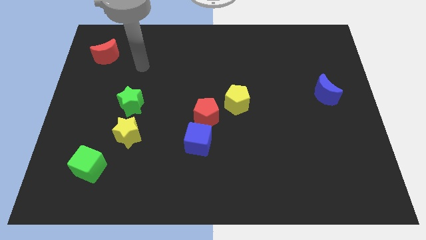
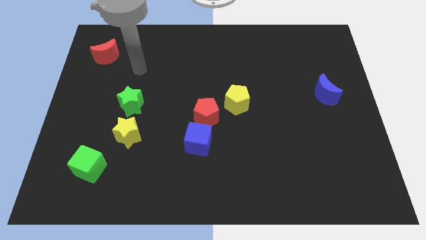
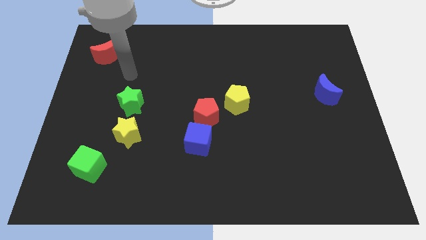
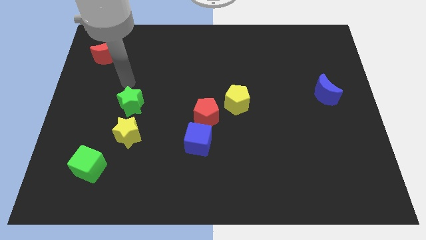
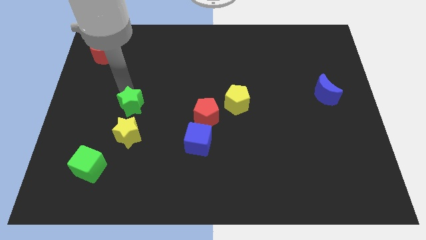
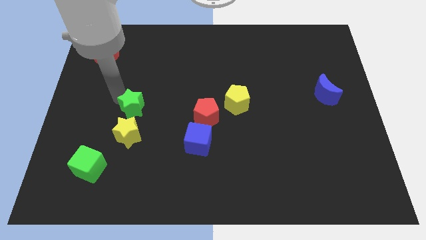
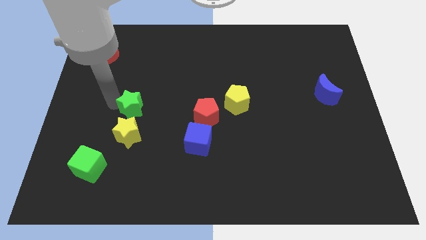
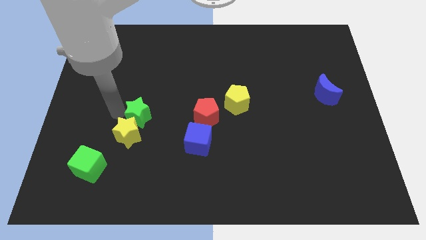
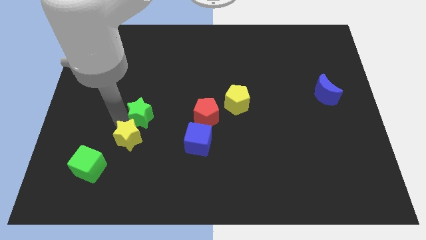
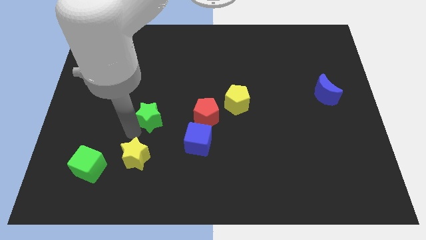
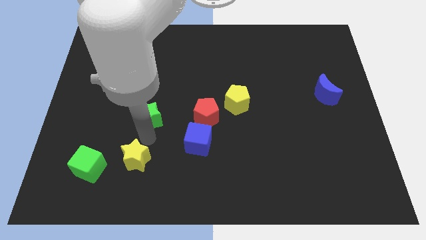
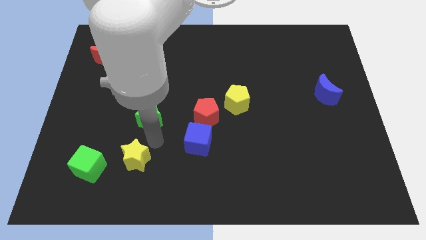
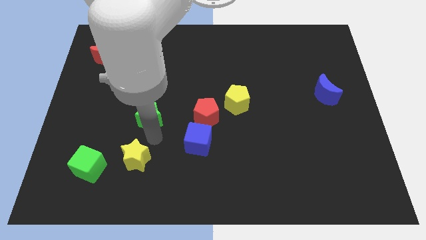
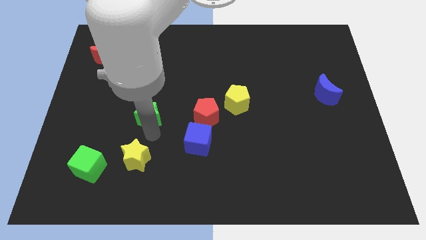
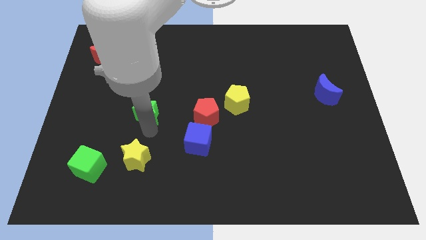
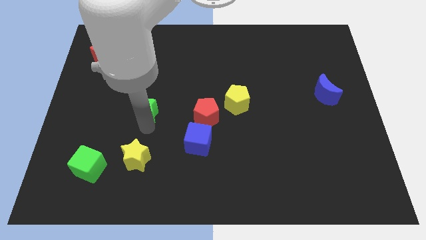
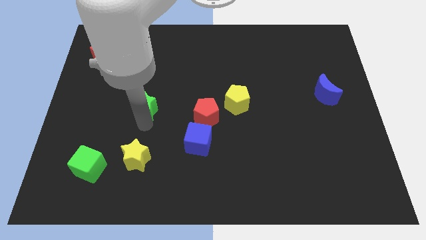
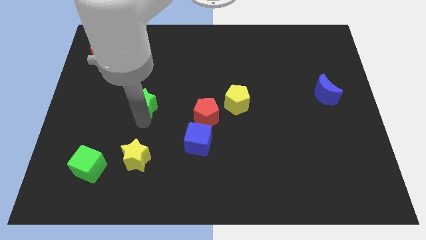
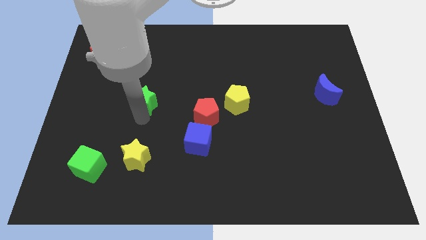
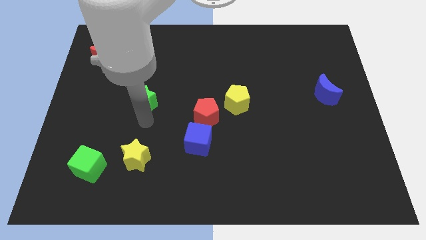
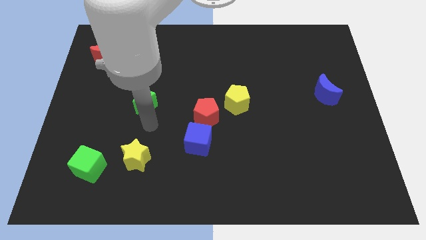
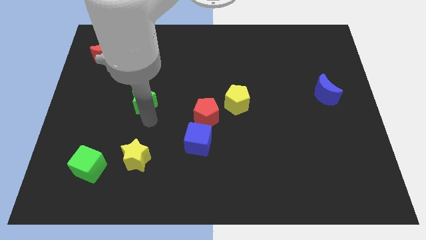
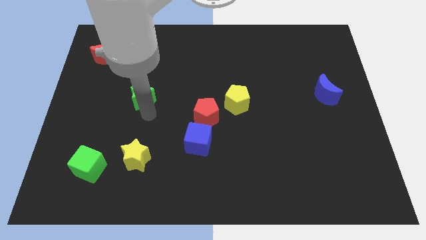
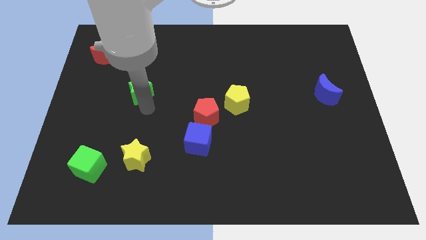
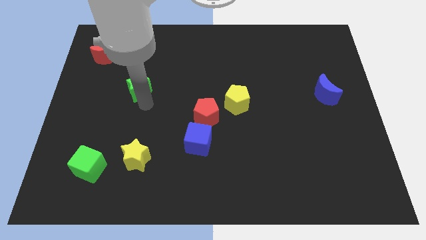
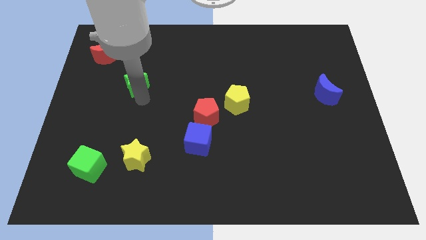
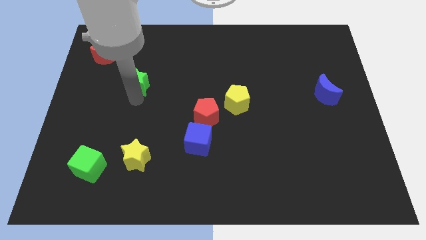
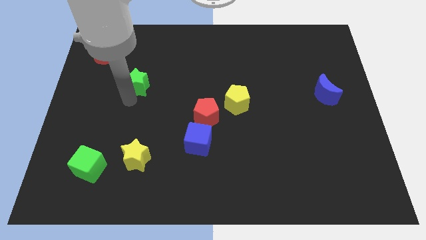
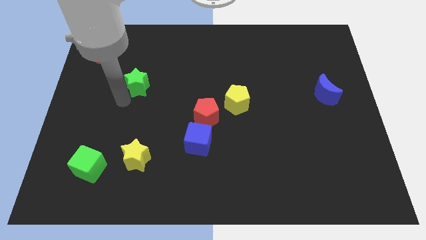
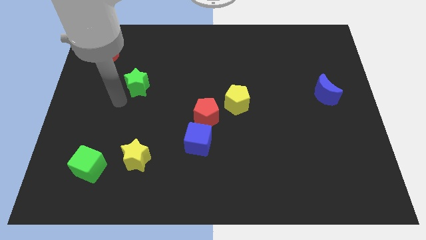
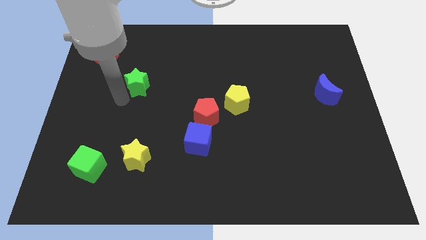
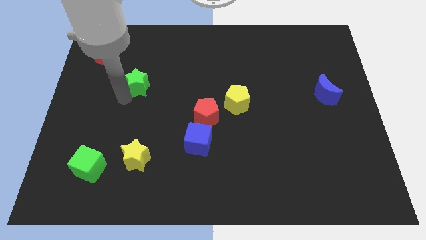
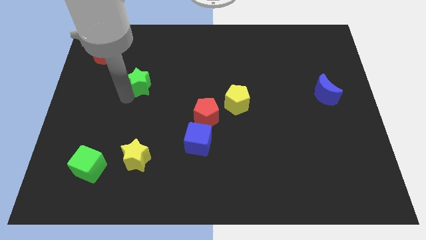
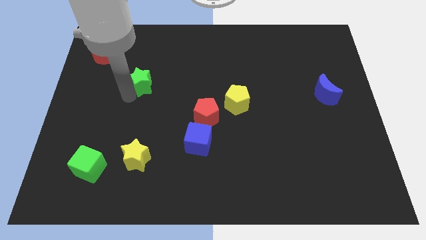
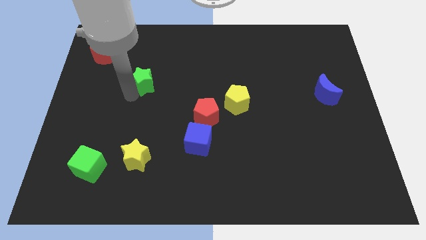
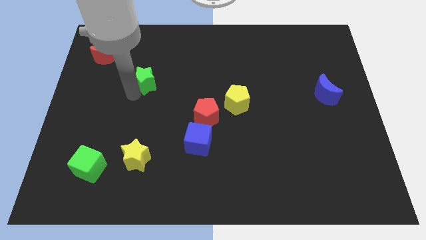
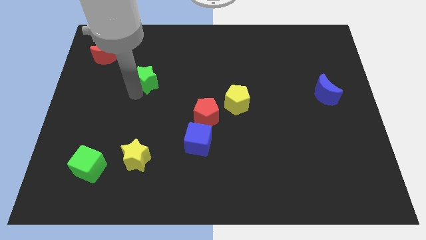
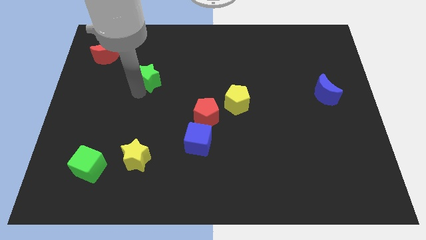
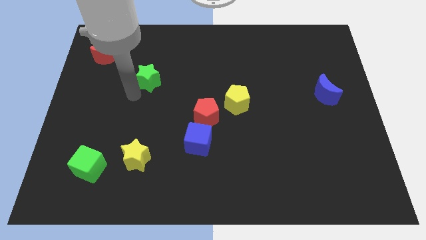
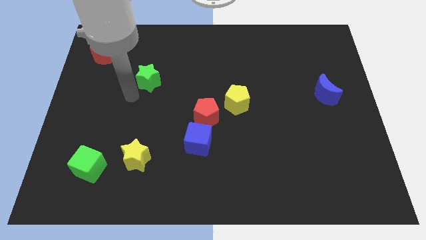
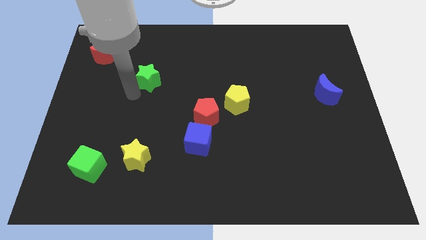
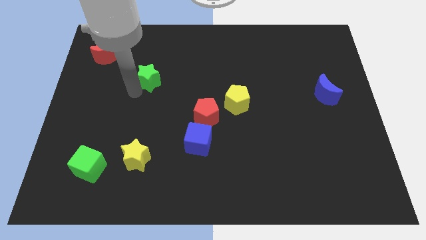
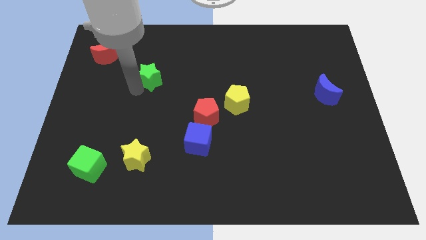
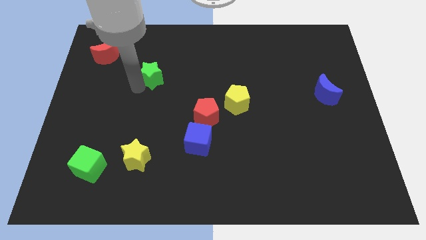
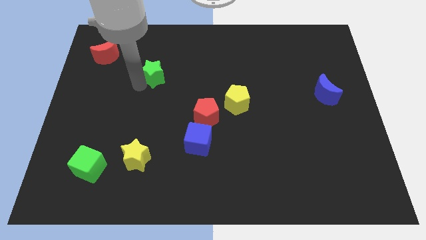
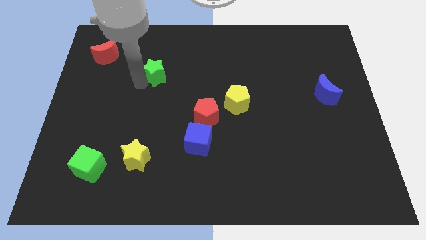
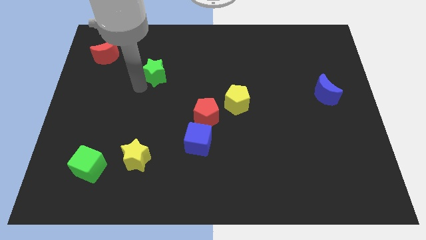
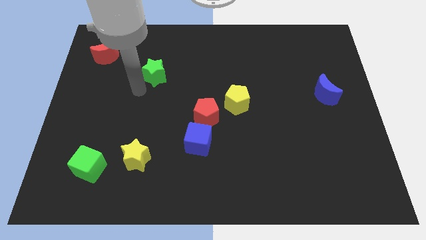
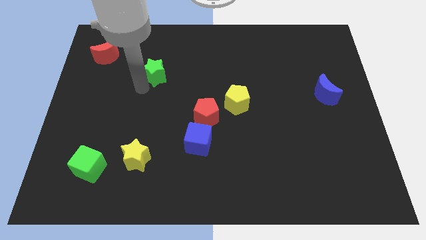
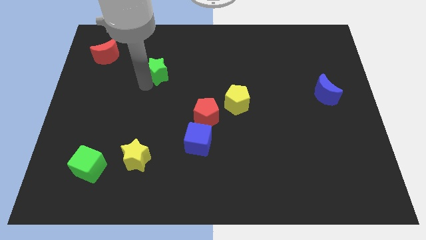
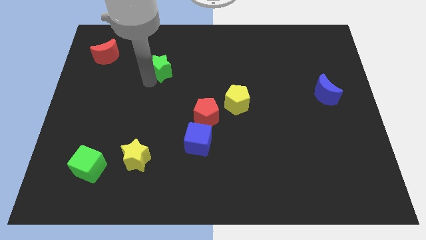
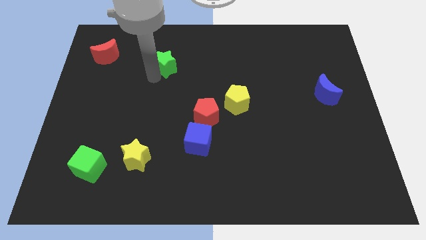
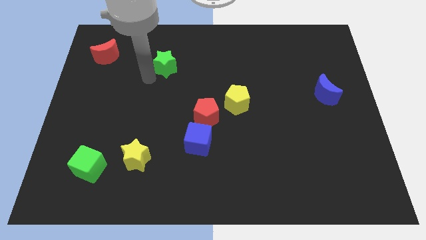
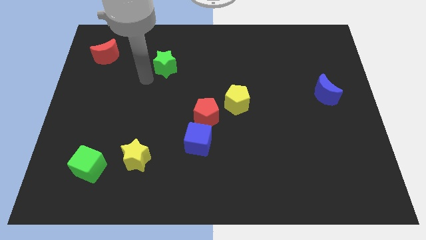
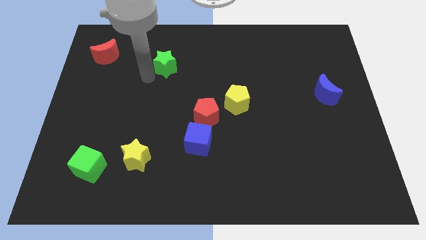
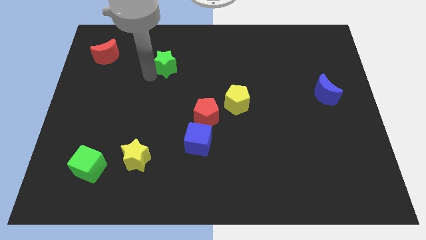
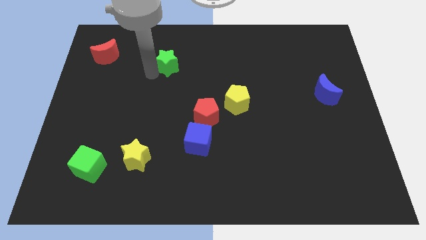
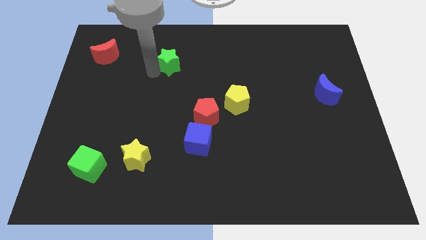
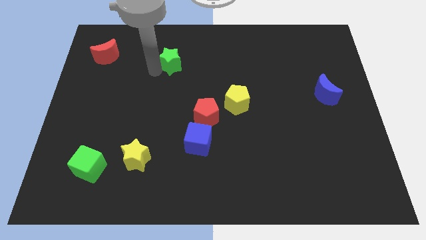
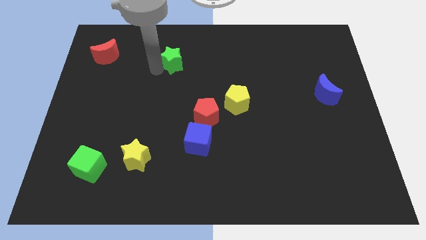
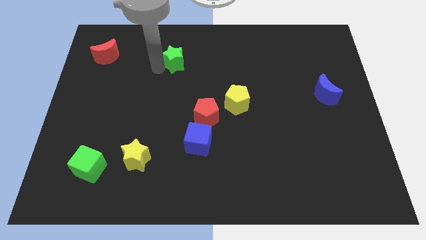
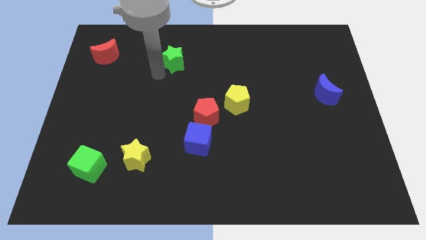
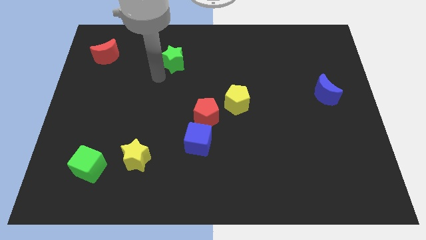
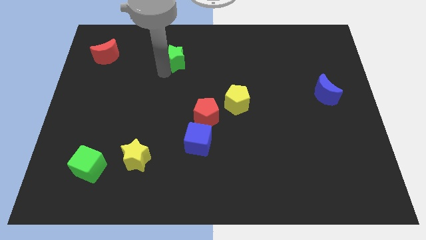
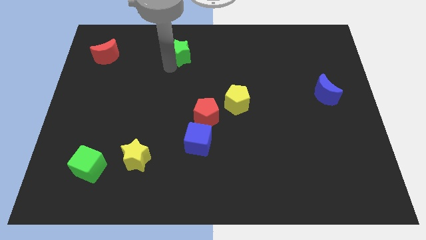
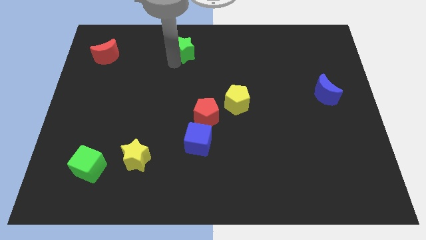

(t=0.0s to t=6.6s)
push the green star to the towards your base

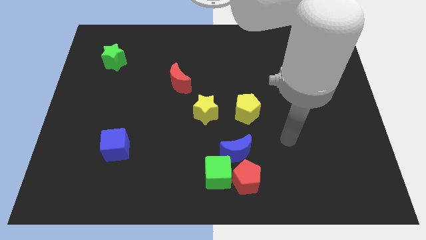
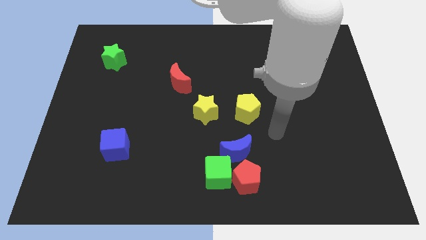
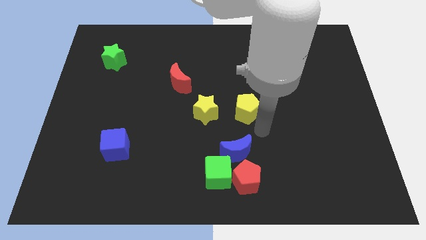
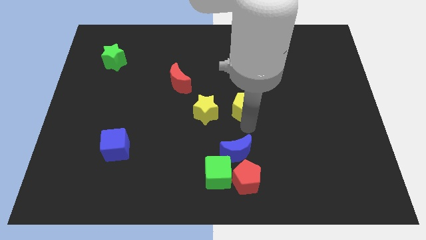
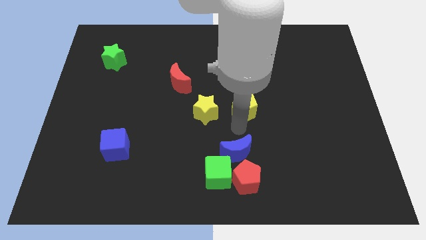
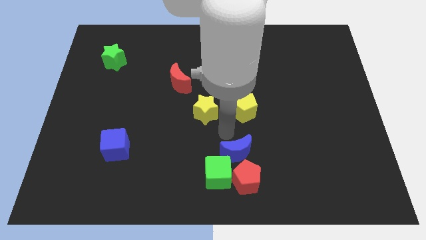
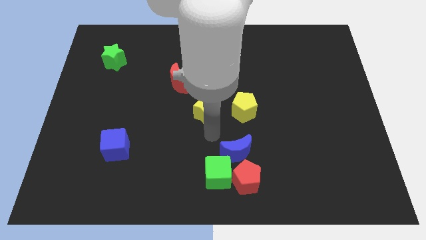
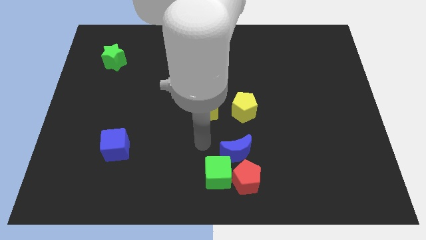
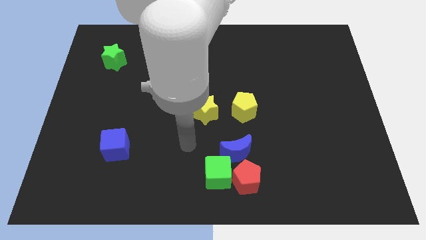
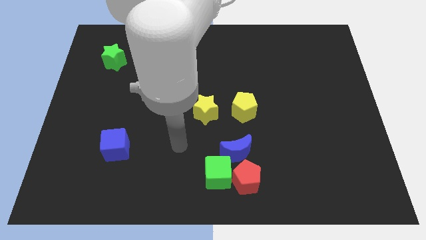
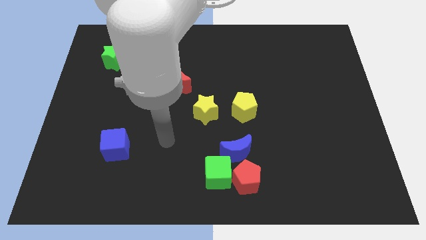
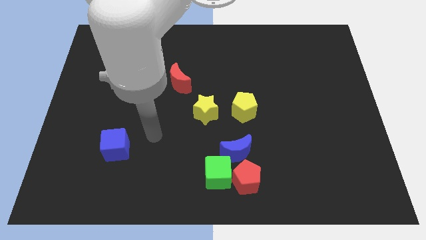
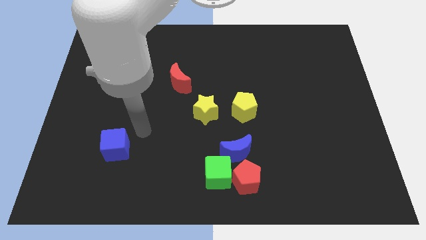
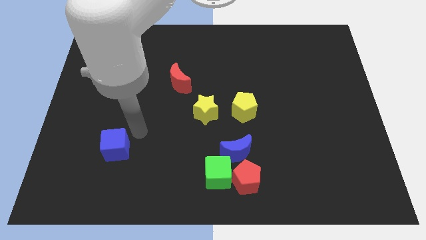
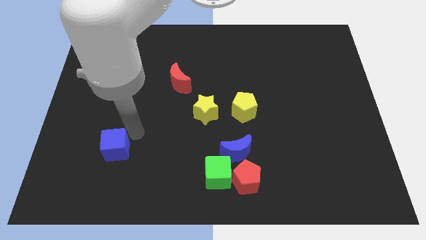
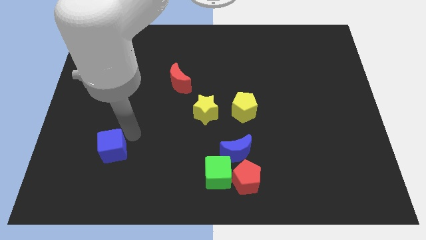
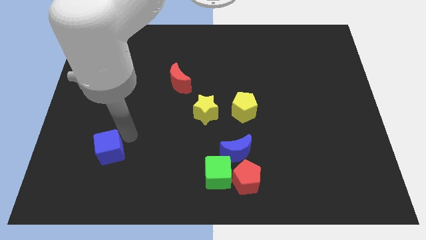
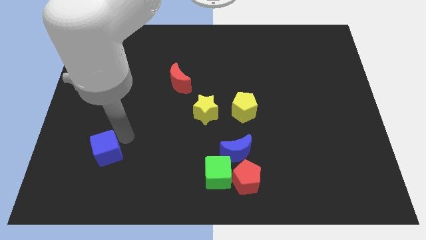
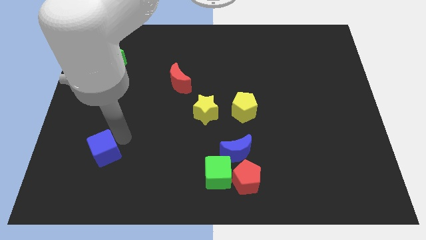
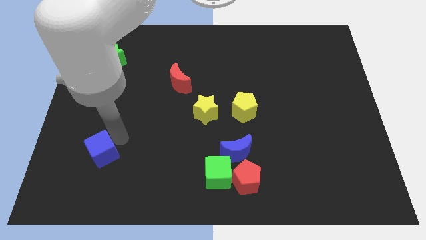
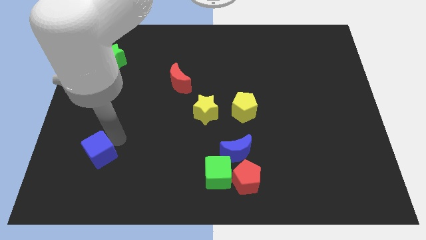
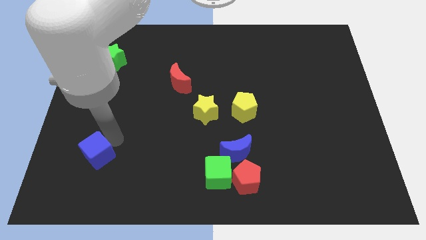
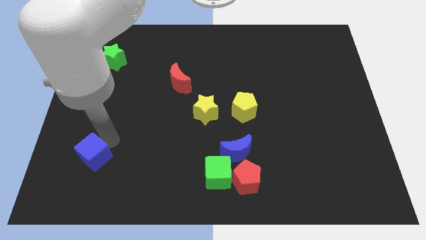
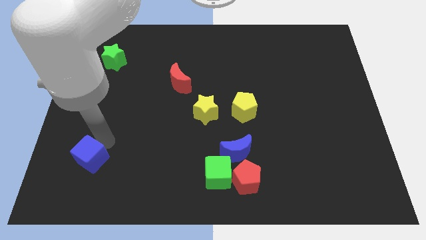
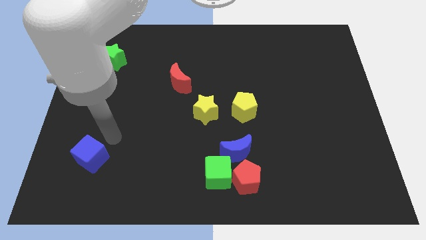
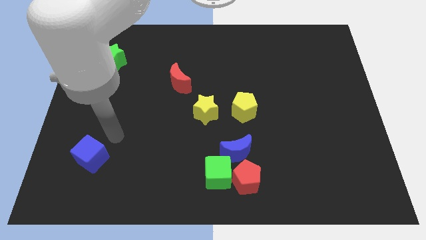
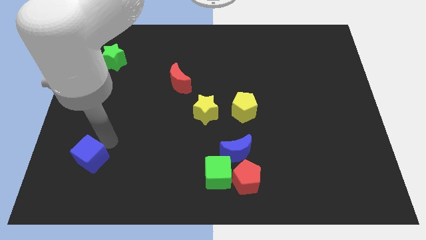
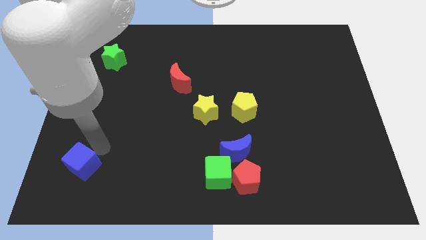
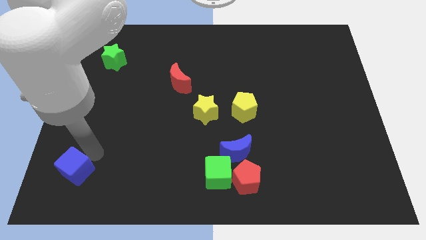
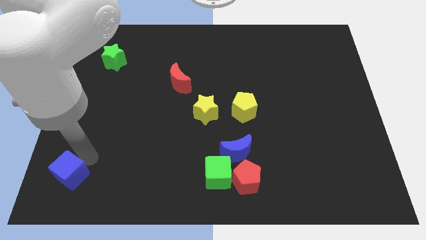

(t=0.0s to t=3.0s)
move the blue cube to the lower left corner
